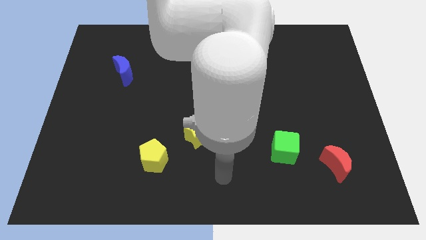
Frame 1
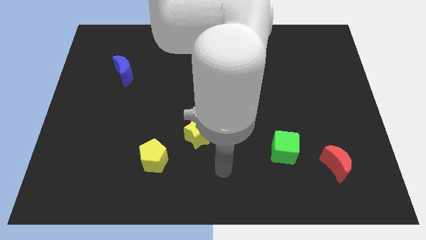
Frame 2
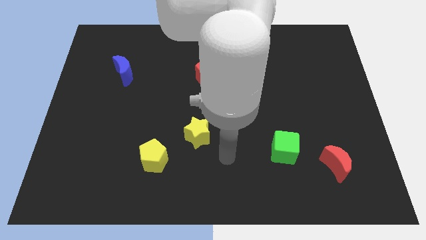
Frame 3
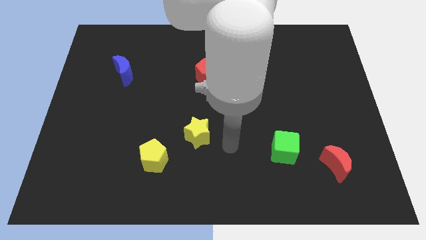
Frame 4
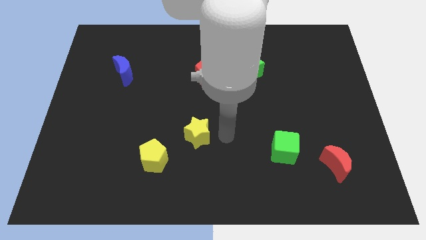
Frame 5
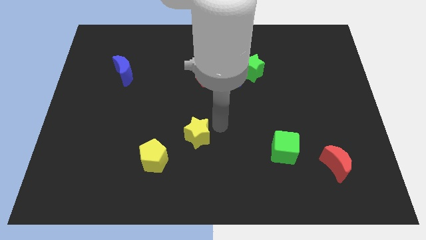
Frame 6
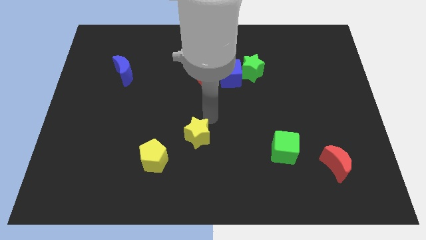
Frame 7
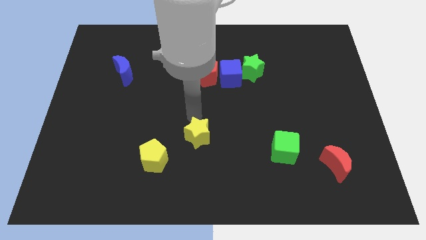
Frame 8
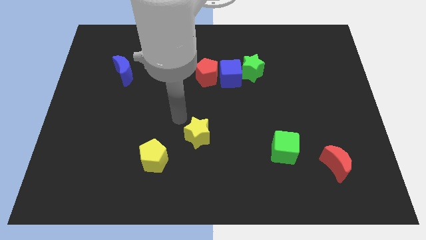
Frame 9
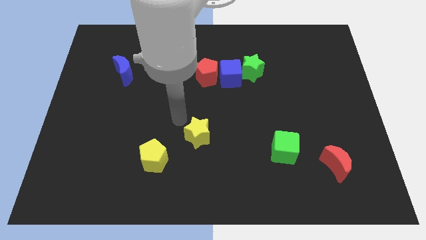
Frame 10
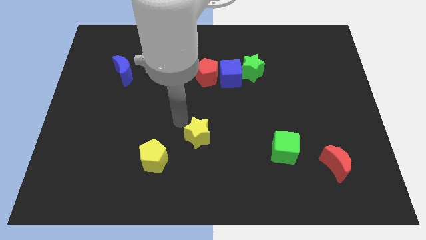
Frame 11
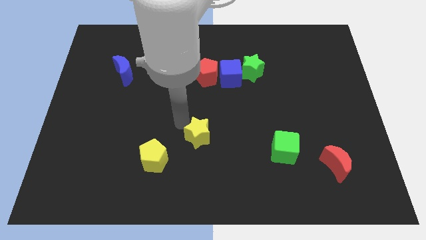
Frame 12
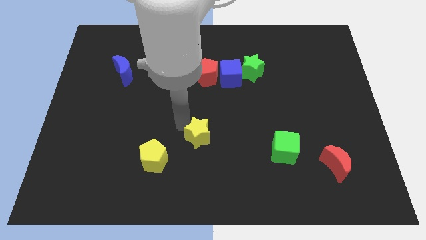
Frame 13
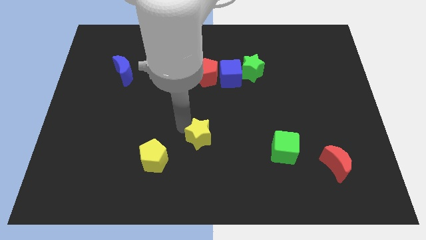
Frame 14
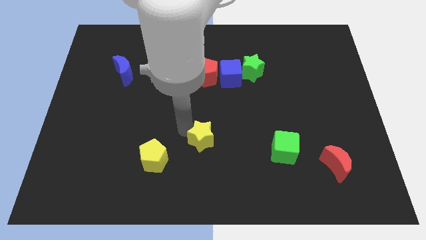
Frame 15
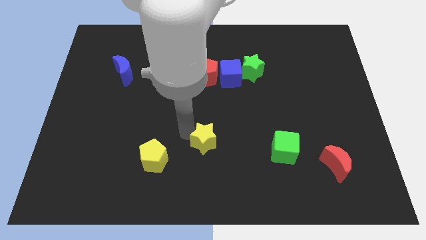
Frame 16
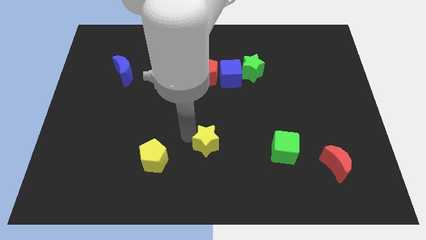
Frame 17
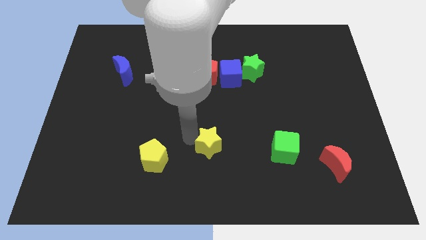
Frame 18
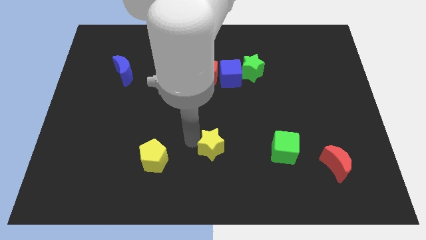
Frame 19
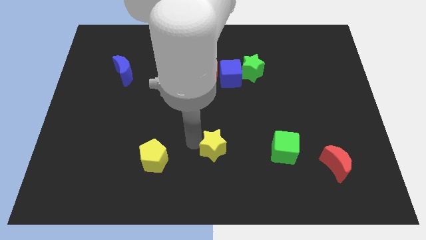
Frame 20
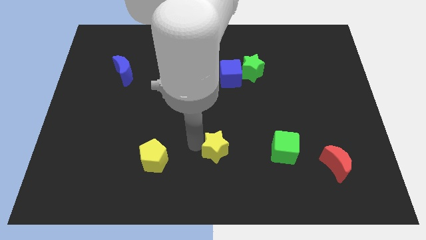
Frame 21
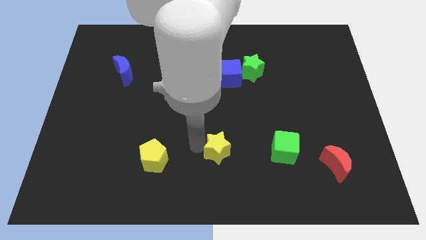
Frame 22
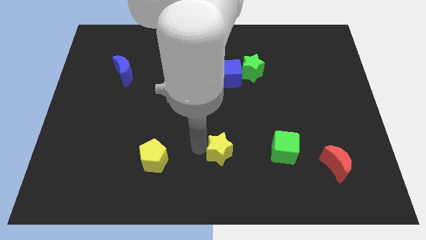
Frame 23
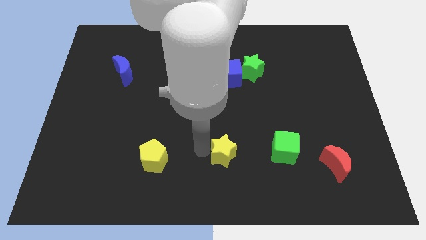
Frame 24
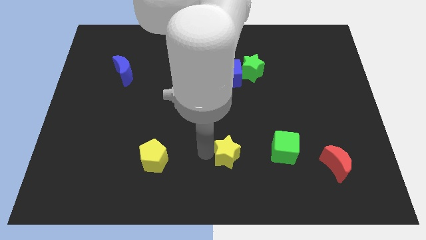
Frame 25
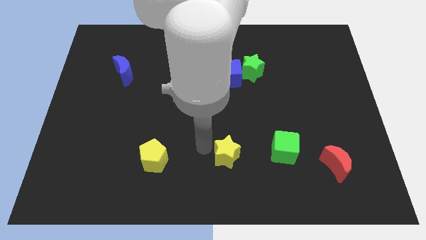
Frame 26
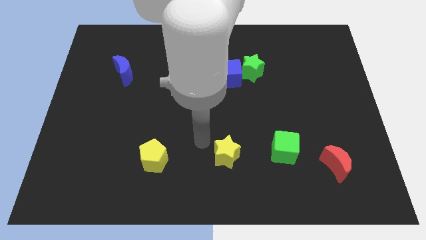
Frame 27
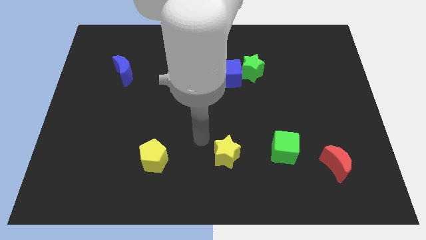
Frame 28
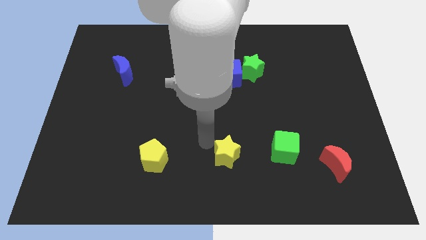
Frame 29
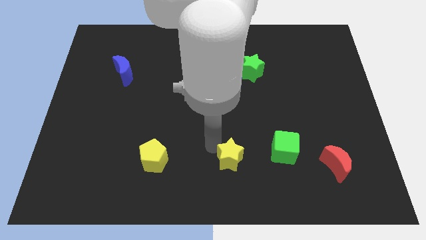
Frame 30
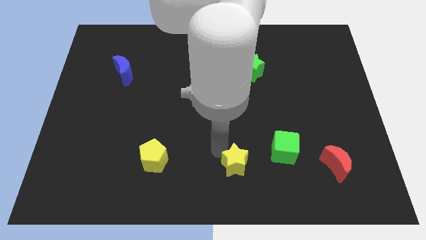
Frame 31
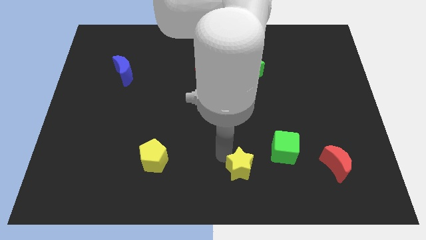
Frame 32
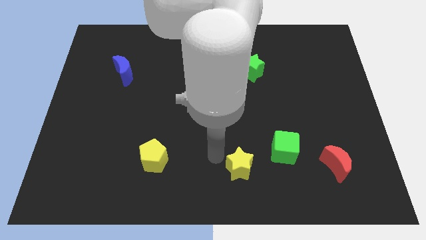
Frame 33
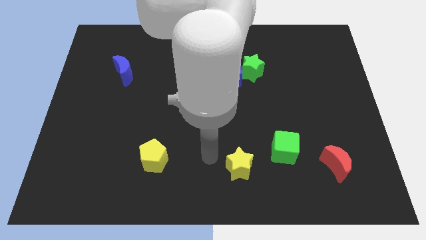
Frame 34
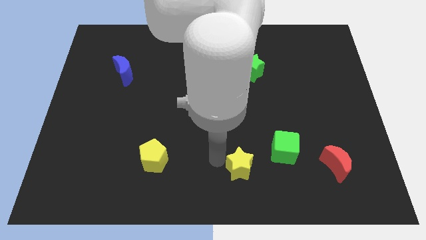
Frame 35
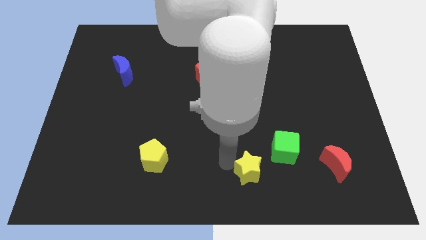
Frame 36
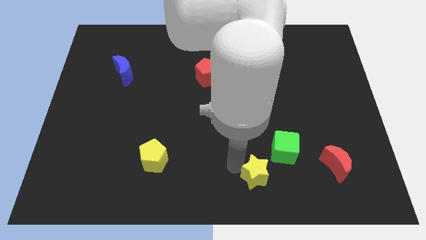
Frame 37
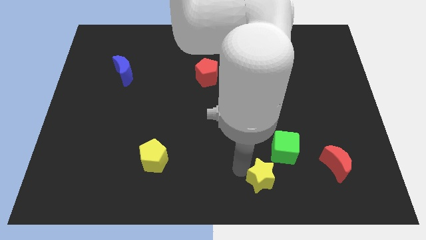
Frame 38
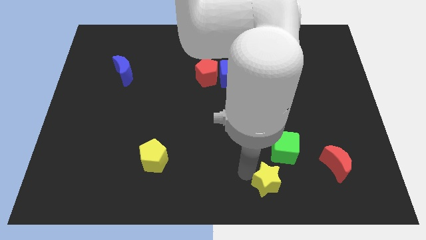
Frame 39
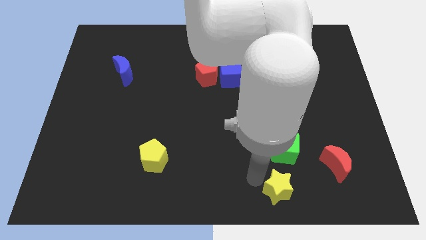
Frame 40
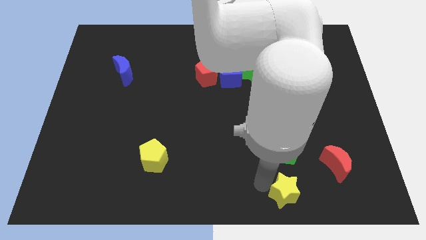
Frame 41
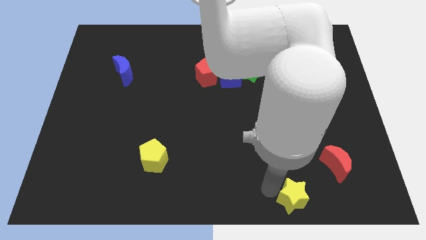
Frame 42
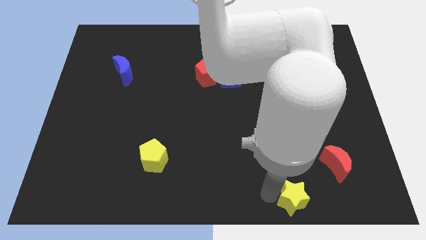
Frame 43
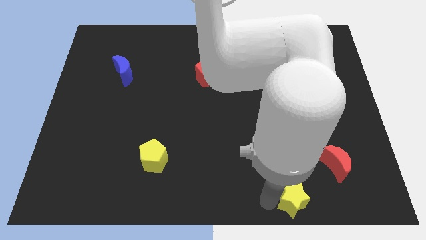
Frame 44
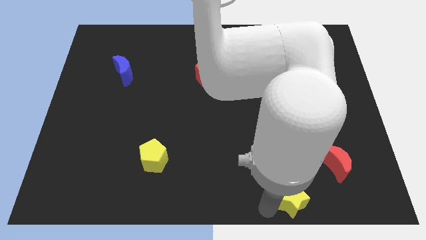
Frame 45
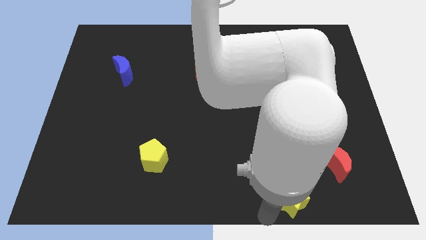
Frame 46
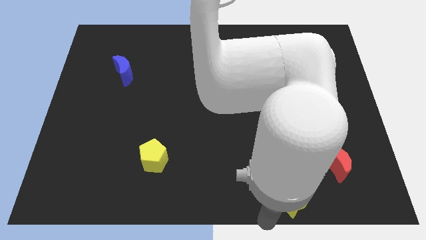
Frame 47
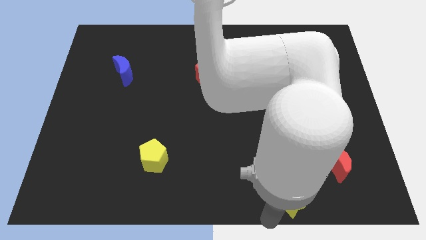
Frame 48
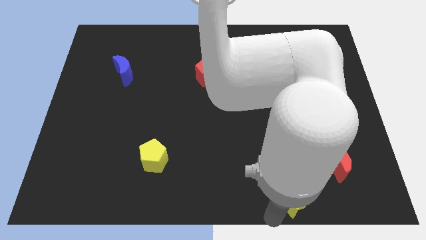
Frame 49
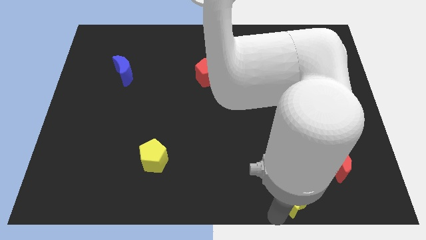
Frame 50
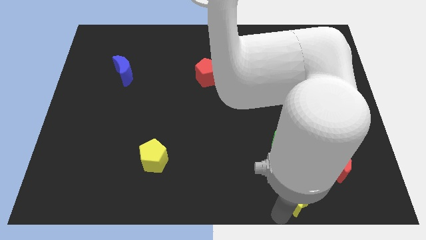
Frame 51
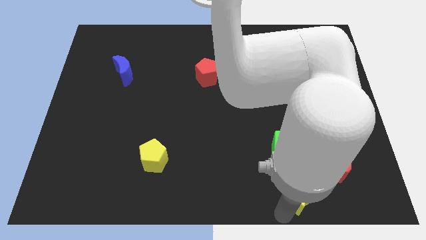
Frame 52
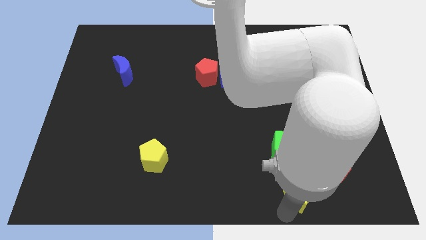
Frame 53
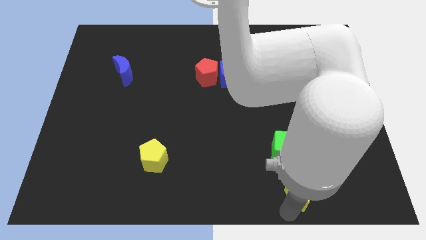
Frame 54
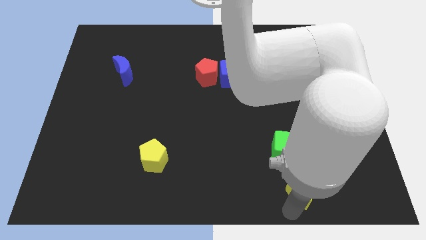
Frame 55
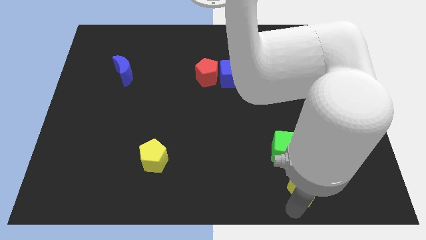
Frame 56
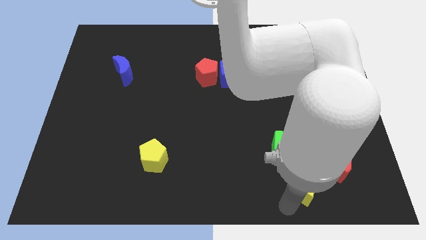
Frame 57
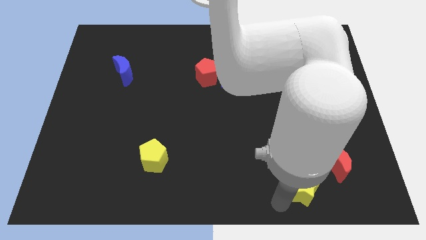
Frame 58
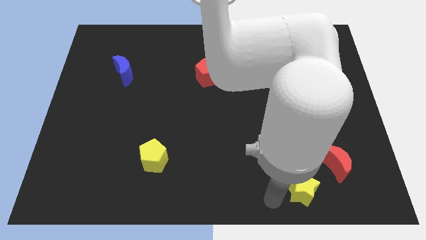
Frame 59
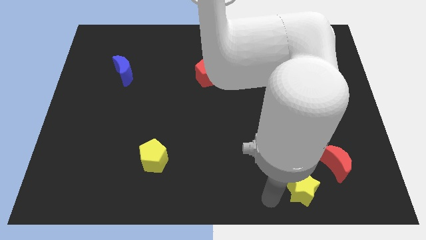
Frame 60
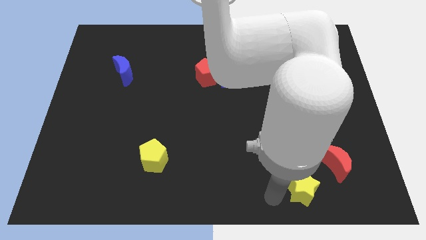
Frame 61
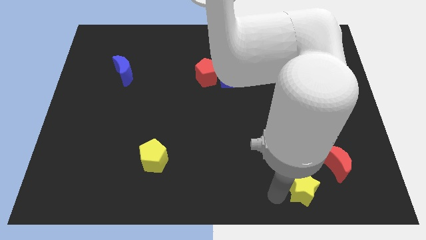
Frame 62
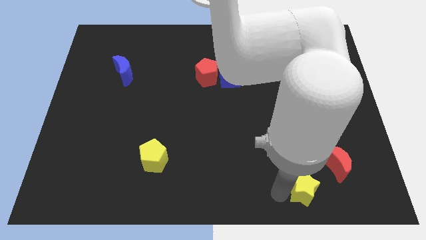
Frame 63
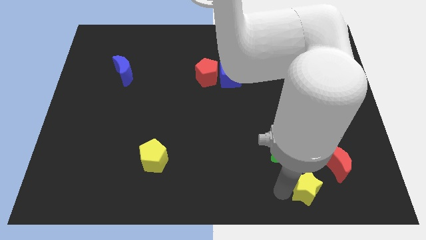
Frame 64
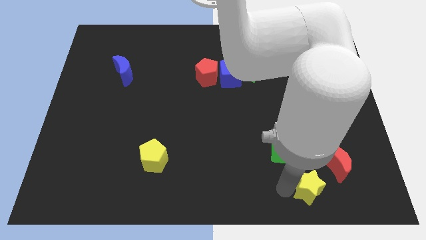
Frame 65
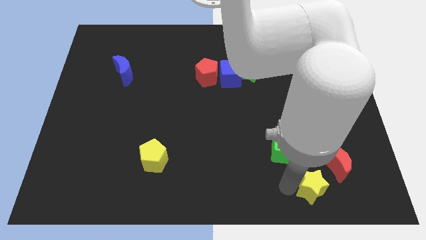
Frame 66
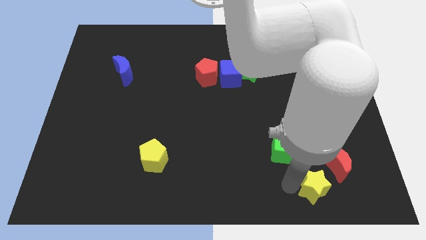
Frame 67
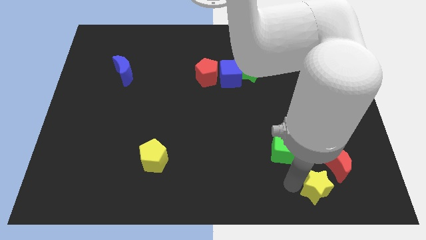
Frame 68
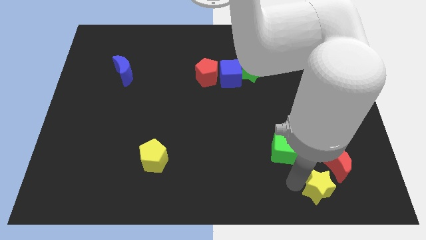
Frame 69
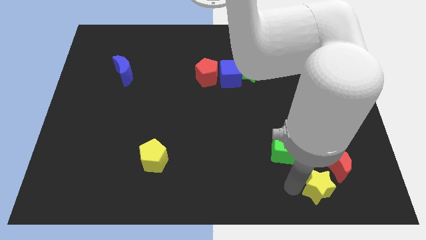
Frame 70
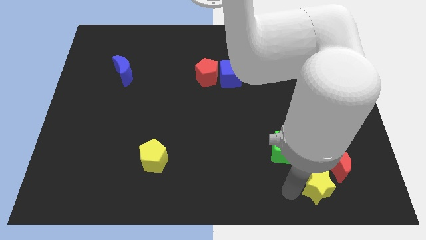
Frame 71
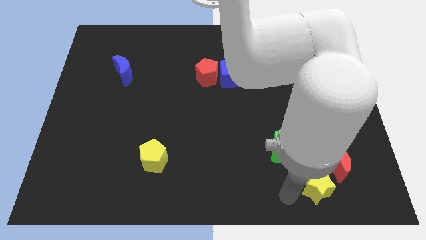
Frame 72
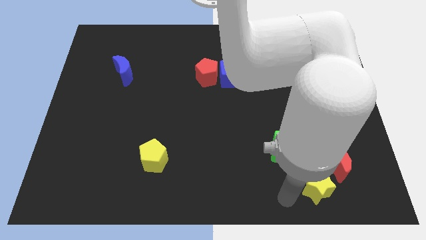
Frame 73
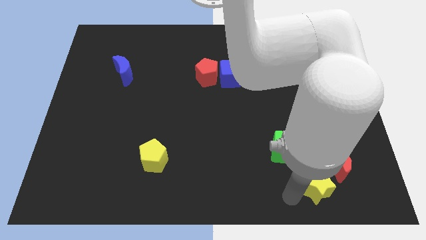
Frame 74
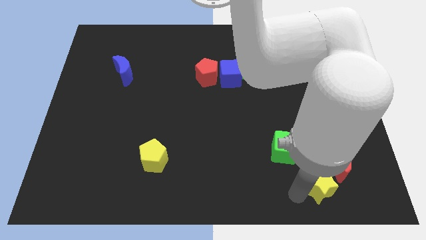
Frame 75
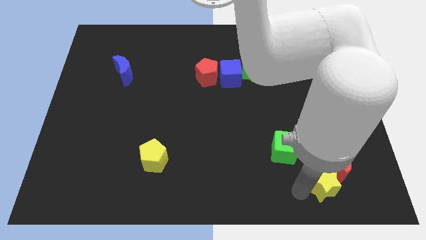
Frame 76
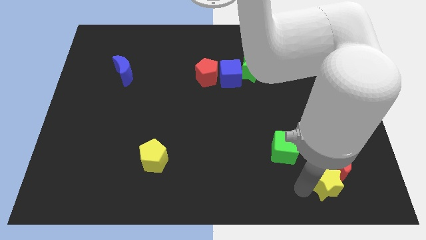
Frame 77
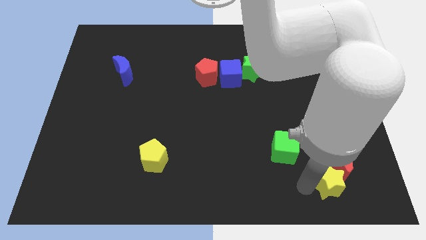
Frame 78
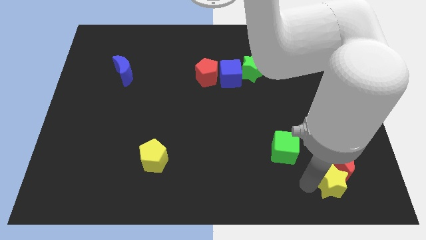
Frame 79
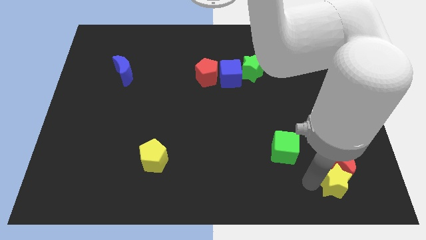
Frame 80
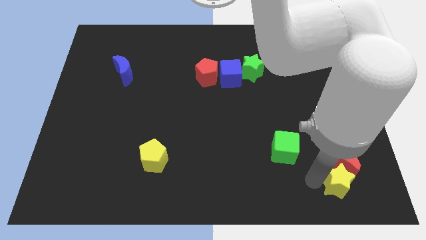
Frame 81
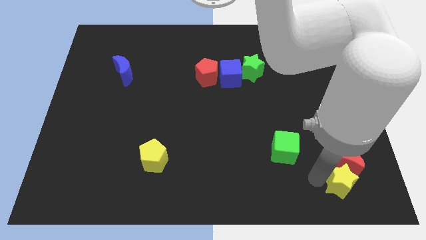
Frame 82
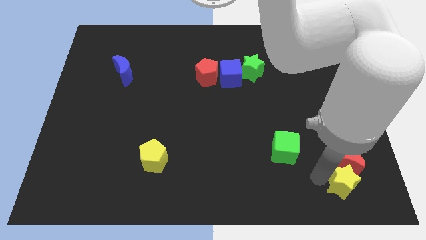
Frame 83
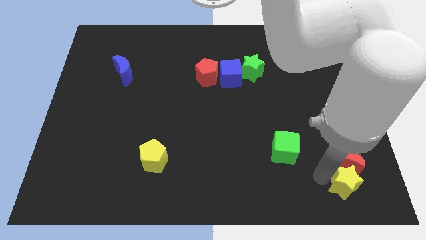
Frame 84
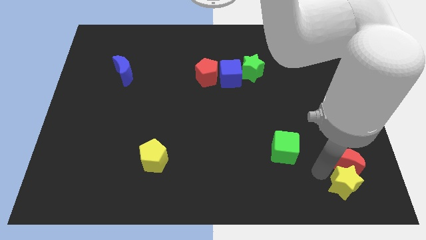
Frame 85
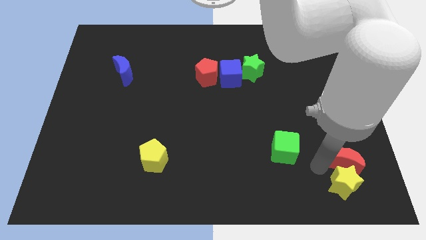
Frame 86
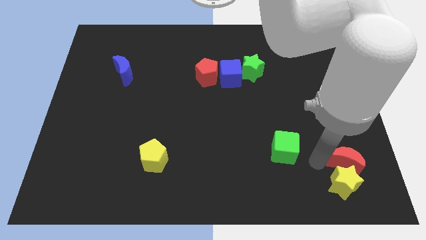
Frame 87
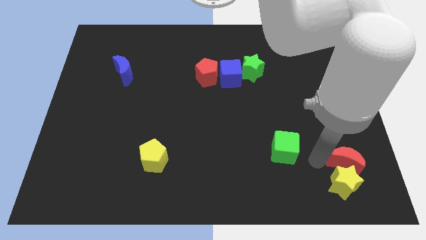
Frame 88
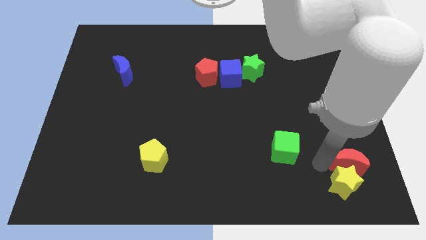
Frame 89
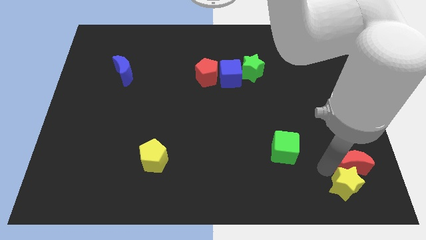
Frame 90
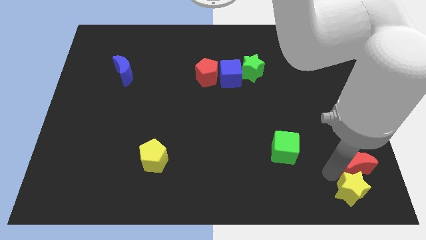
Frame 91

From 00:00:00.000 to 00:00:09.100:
push the yellow star to the lower right corner
